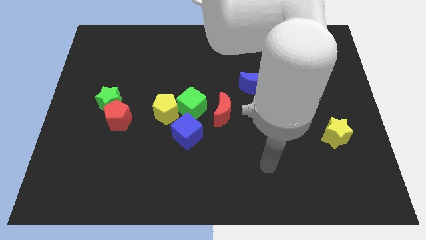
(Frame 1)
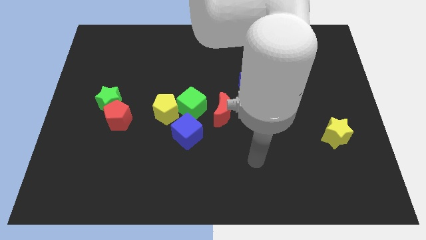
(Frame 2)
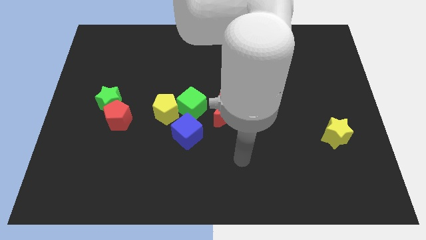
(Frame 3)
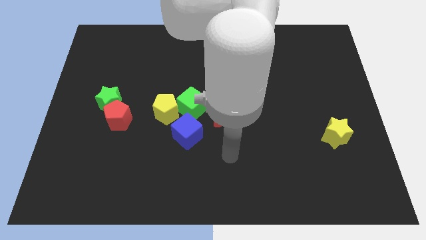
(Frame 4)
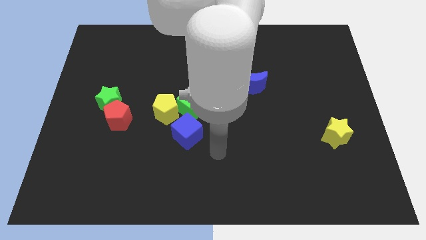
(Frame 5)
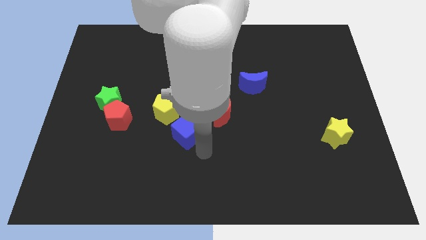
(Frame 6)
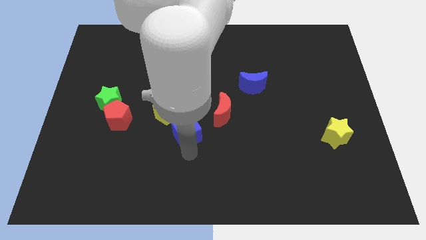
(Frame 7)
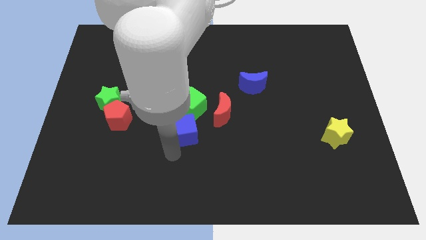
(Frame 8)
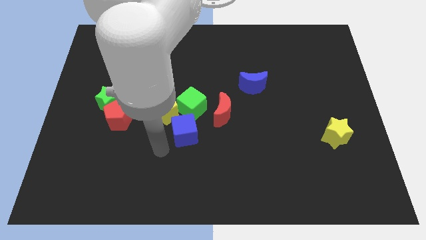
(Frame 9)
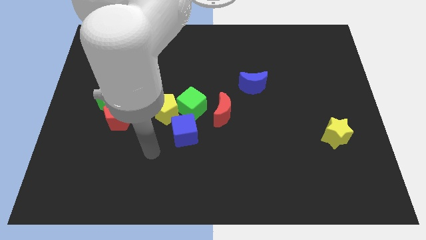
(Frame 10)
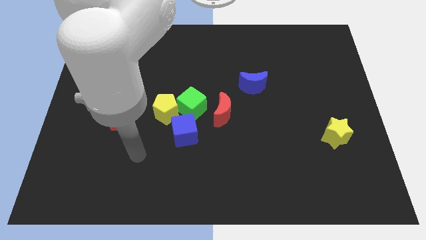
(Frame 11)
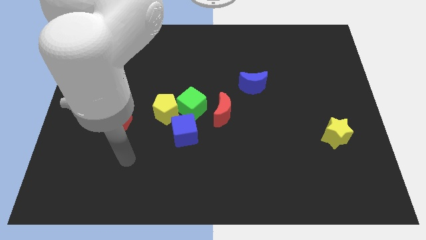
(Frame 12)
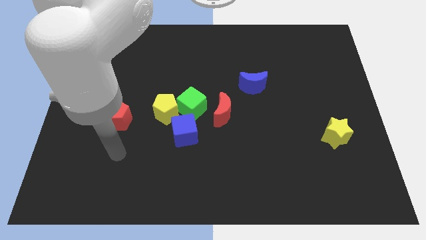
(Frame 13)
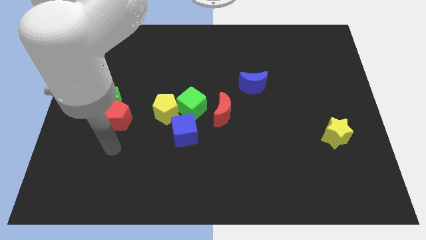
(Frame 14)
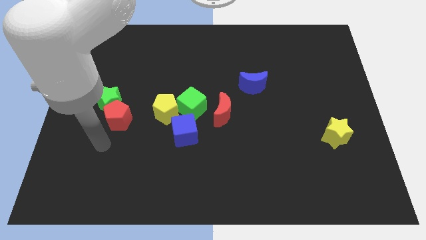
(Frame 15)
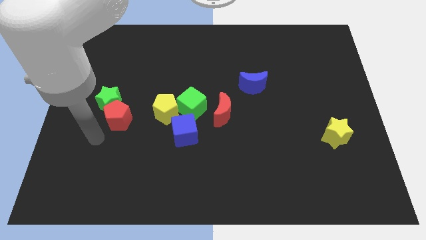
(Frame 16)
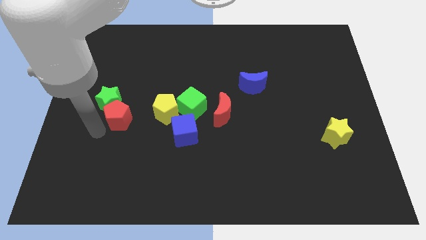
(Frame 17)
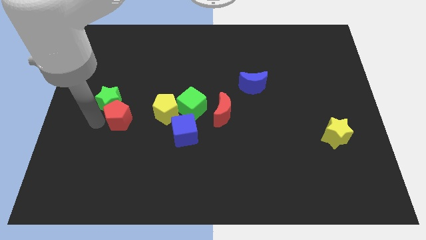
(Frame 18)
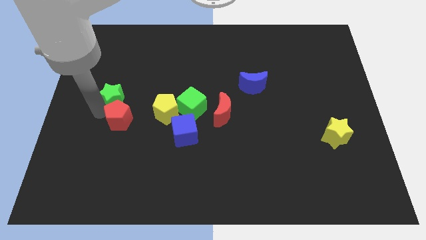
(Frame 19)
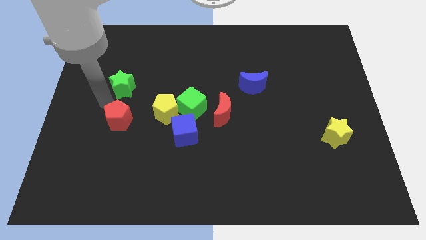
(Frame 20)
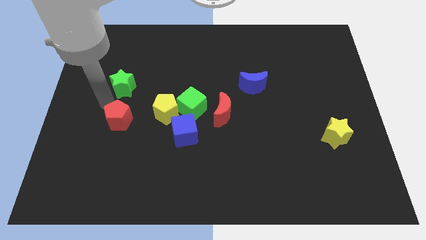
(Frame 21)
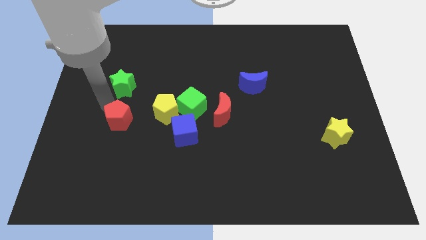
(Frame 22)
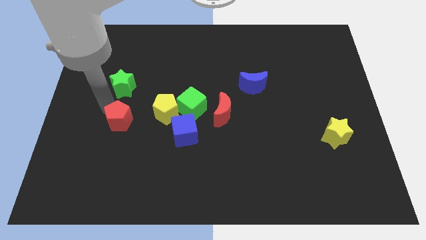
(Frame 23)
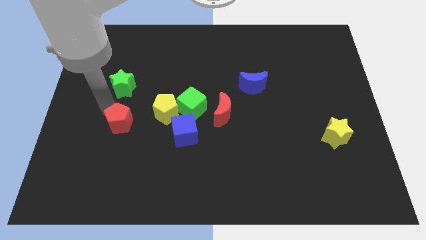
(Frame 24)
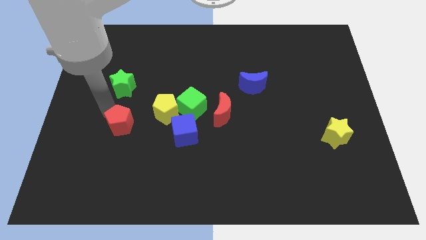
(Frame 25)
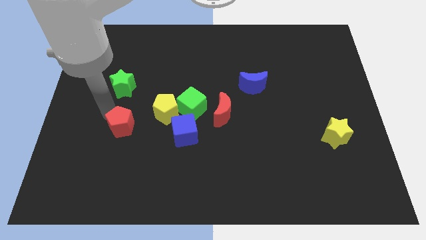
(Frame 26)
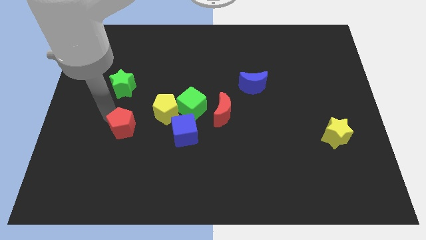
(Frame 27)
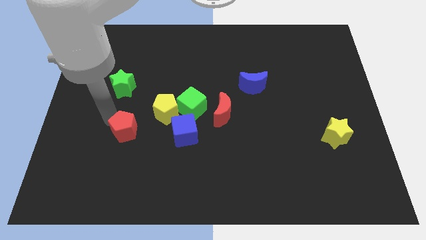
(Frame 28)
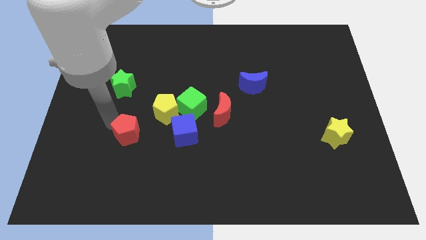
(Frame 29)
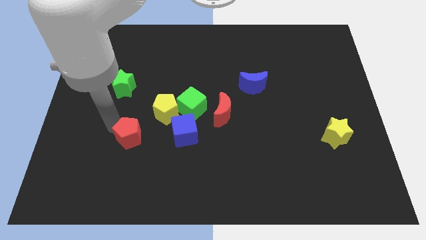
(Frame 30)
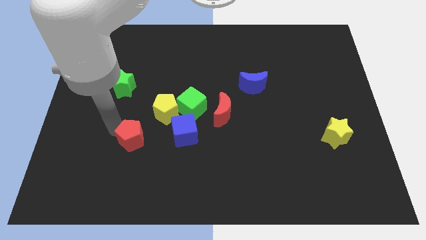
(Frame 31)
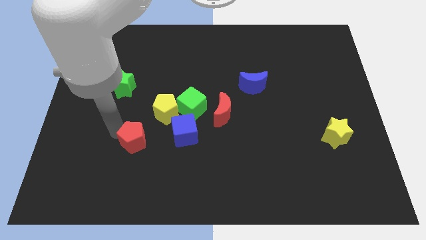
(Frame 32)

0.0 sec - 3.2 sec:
slightly slide the red pentagon downwards and right diagonally

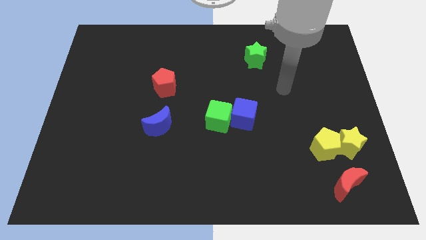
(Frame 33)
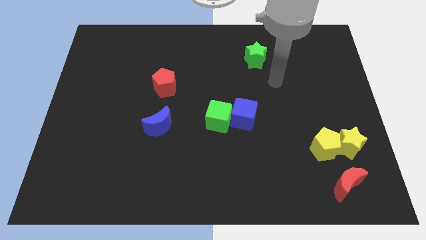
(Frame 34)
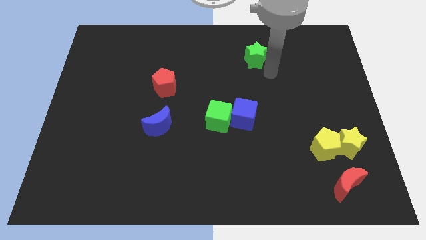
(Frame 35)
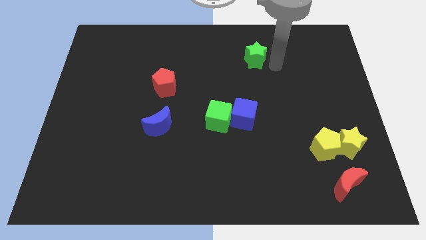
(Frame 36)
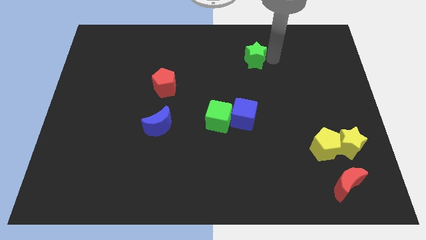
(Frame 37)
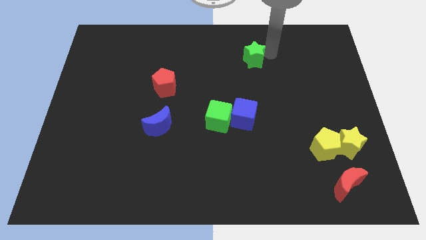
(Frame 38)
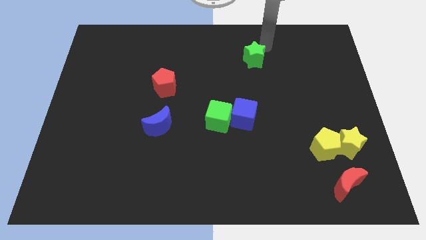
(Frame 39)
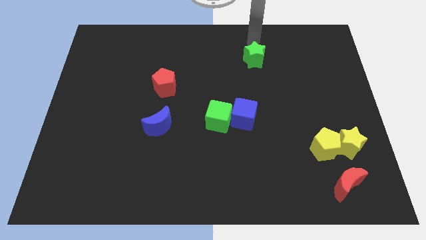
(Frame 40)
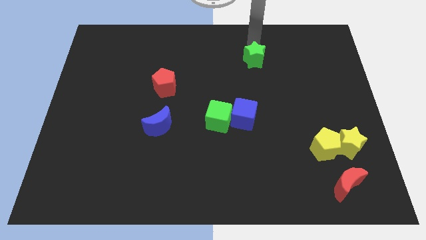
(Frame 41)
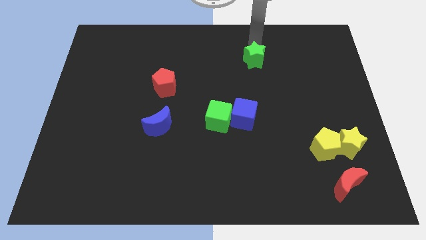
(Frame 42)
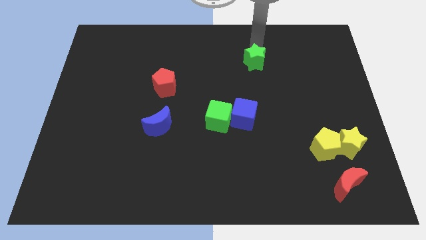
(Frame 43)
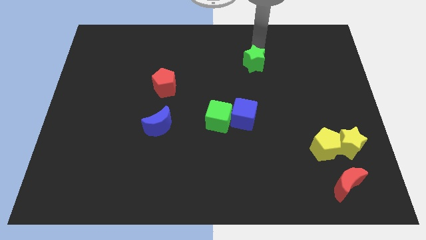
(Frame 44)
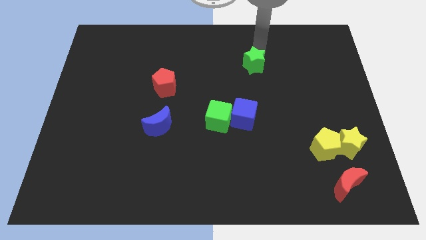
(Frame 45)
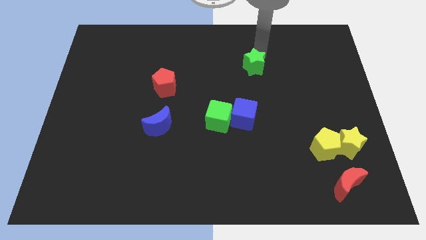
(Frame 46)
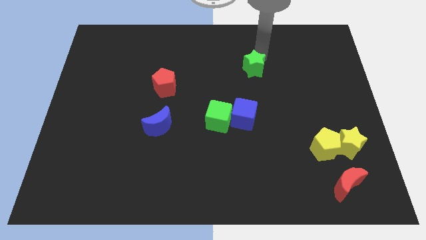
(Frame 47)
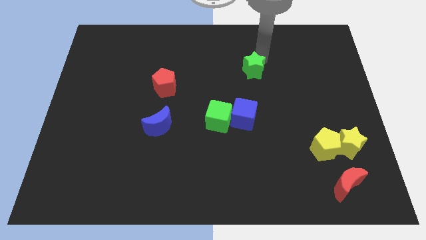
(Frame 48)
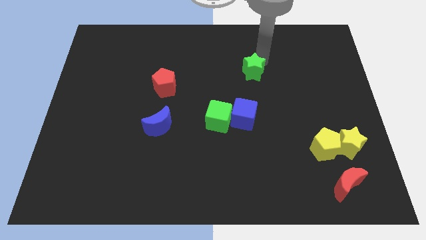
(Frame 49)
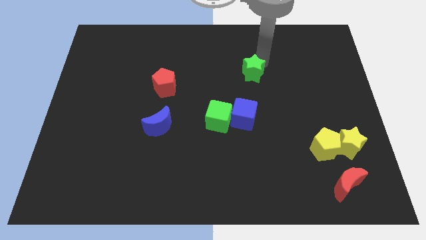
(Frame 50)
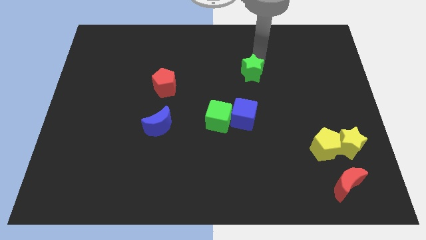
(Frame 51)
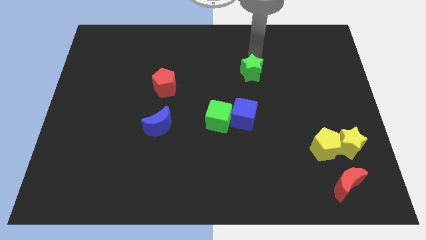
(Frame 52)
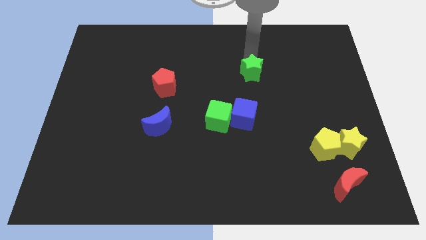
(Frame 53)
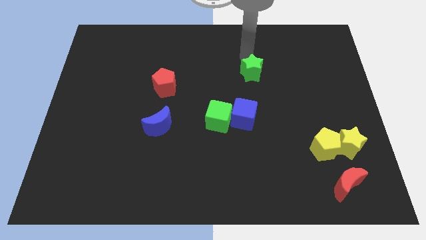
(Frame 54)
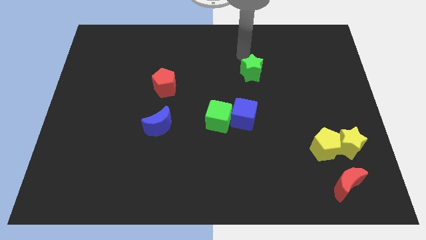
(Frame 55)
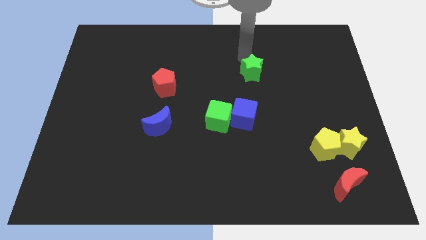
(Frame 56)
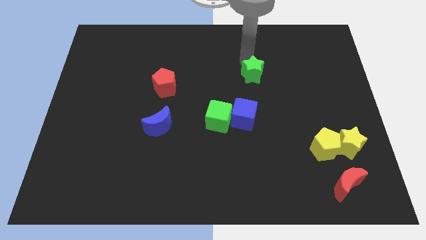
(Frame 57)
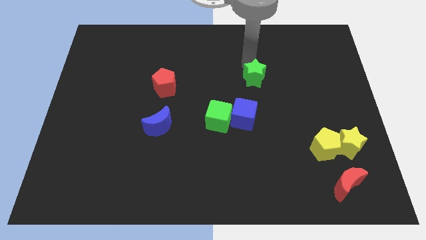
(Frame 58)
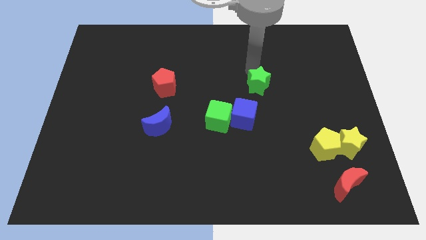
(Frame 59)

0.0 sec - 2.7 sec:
push the green star a bit downwards

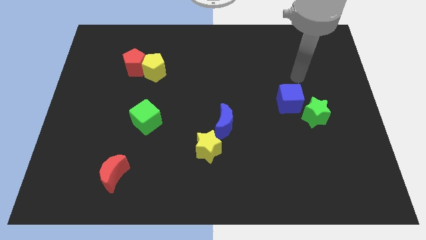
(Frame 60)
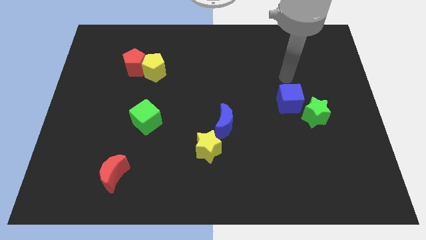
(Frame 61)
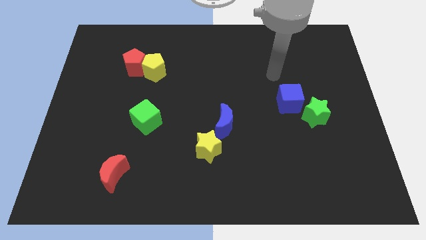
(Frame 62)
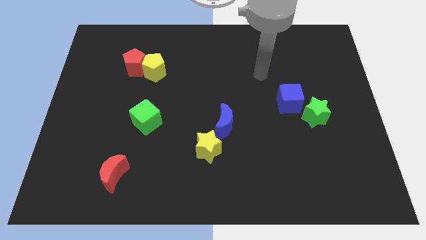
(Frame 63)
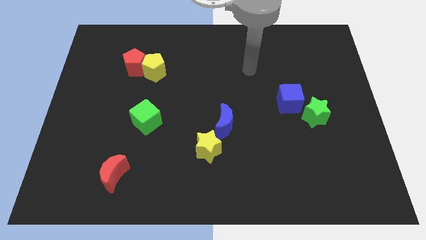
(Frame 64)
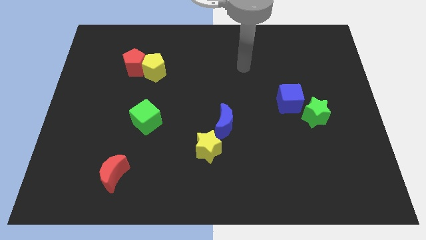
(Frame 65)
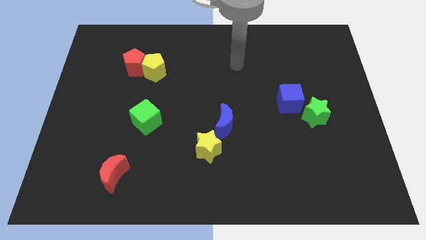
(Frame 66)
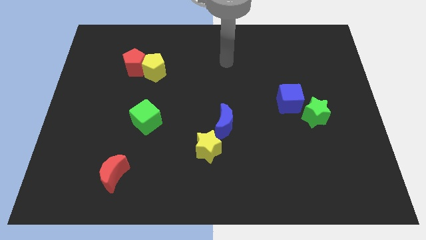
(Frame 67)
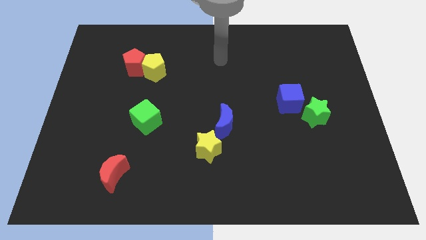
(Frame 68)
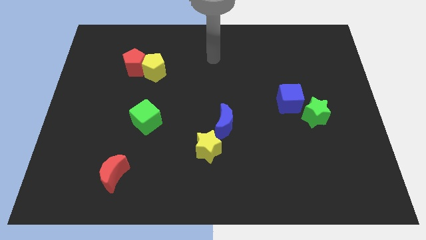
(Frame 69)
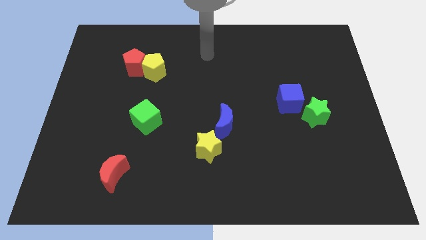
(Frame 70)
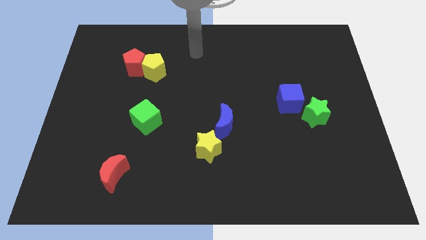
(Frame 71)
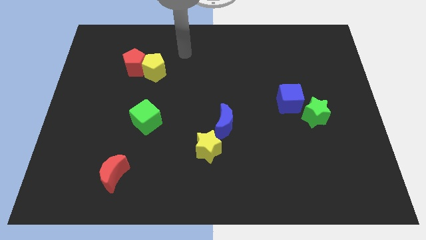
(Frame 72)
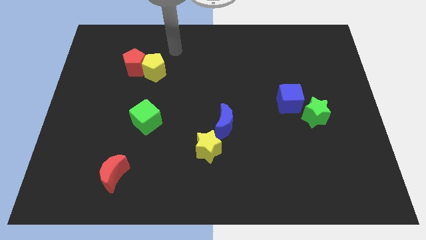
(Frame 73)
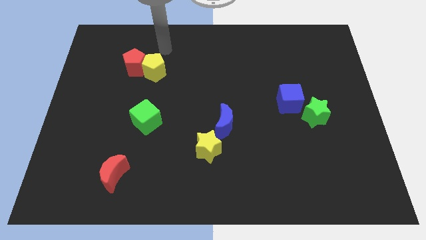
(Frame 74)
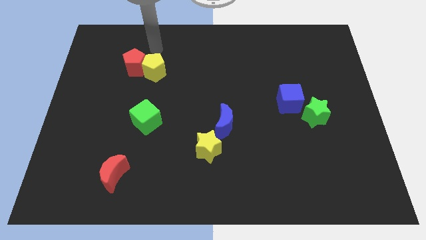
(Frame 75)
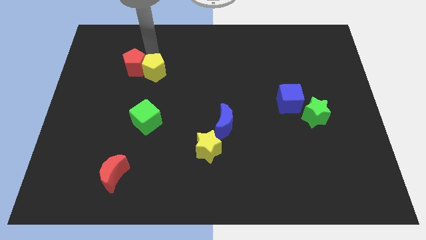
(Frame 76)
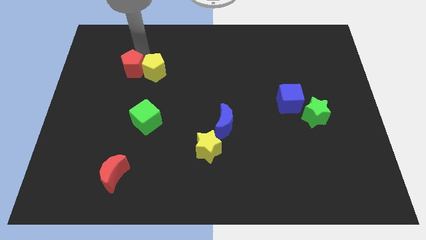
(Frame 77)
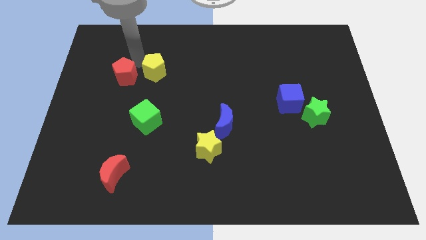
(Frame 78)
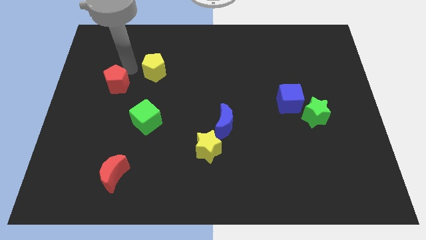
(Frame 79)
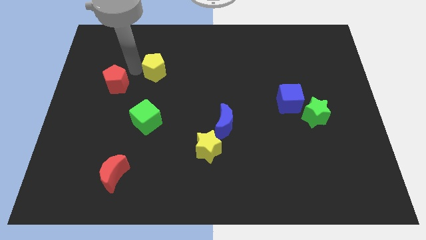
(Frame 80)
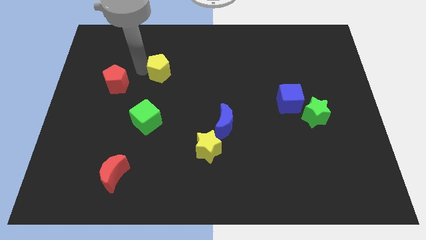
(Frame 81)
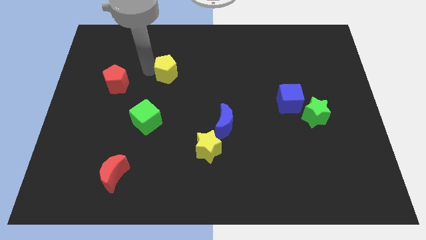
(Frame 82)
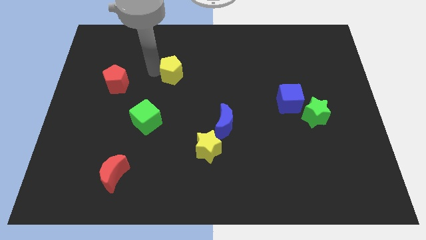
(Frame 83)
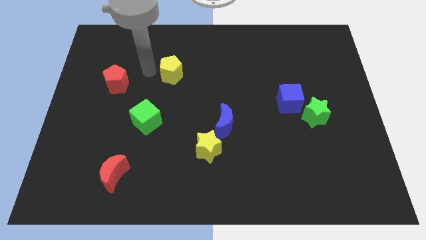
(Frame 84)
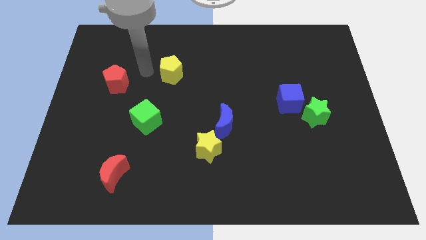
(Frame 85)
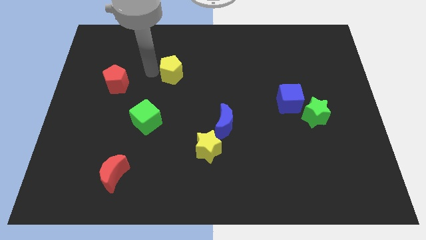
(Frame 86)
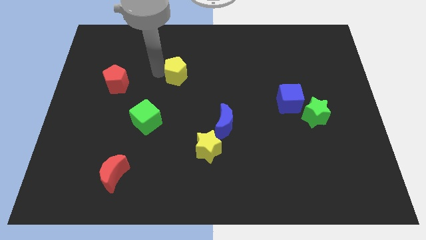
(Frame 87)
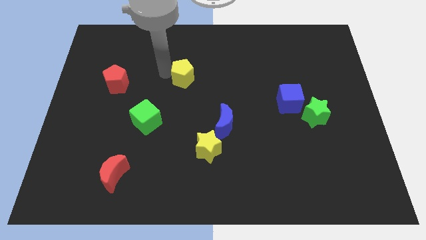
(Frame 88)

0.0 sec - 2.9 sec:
slightly push the yellow pentagon to the right
